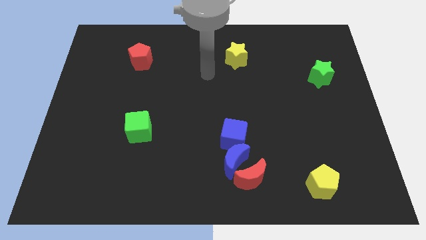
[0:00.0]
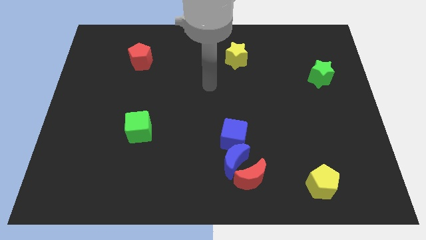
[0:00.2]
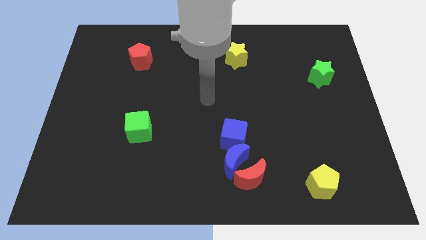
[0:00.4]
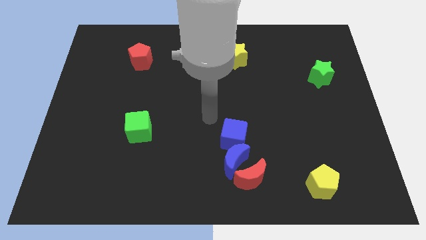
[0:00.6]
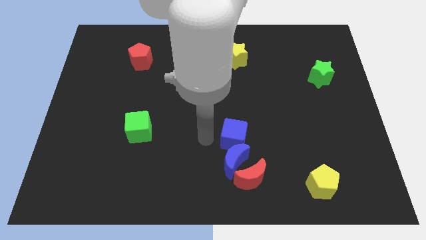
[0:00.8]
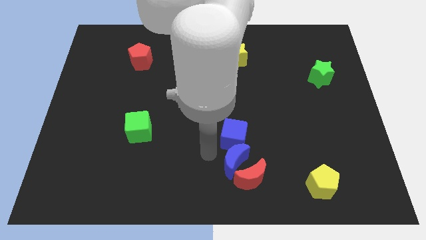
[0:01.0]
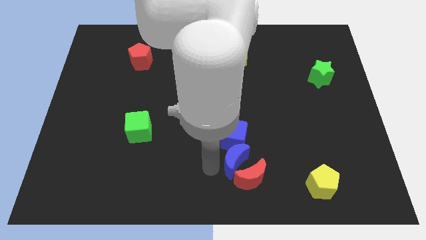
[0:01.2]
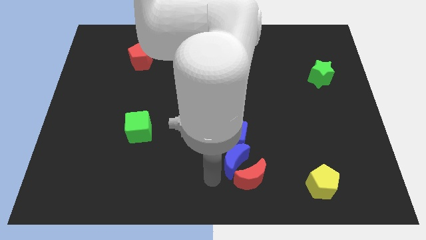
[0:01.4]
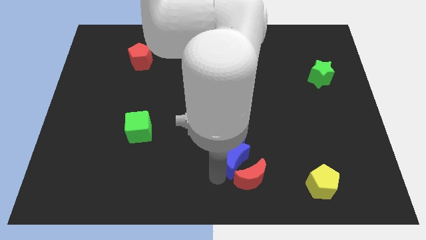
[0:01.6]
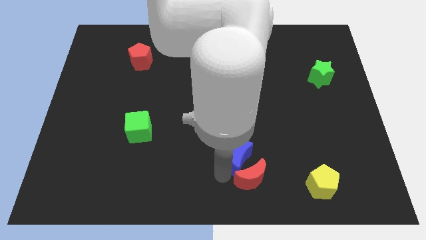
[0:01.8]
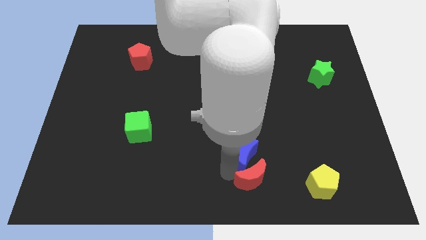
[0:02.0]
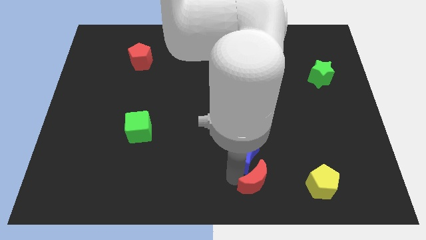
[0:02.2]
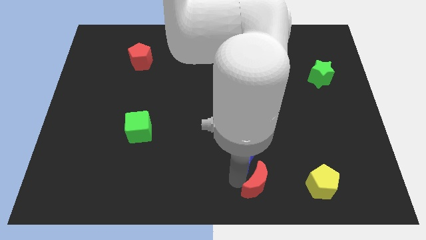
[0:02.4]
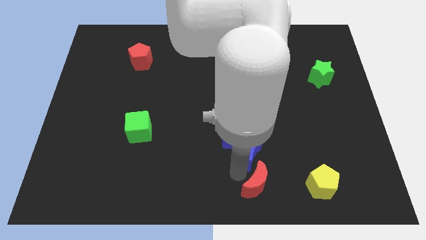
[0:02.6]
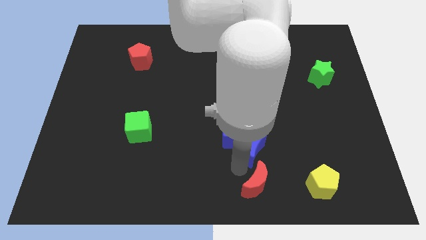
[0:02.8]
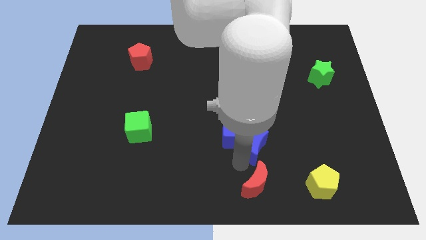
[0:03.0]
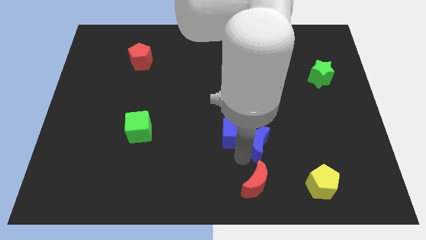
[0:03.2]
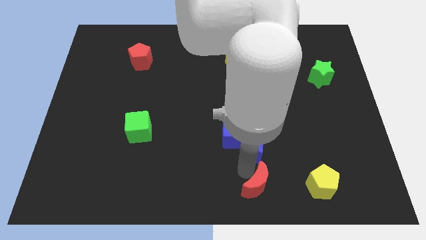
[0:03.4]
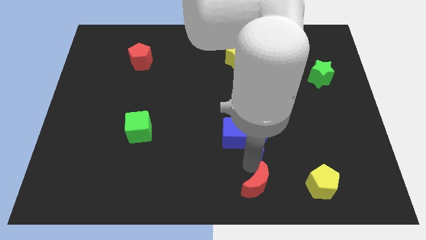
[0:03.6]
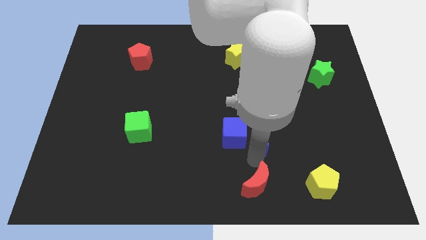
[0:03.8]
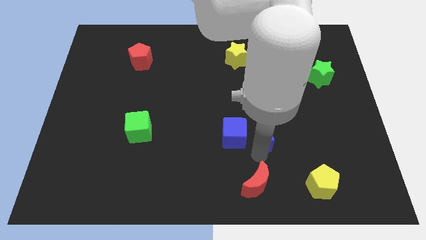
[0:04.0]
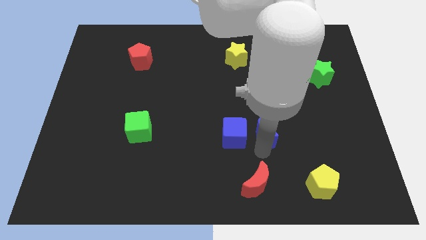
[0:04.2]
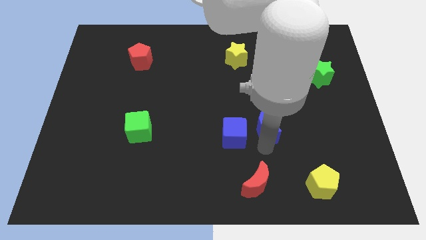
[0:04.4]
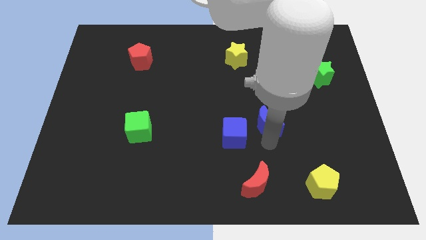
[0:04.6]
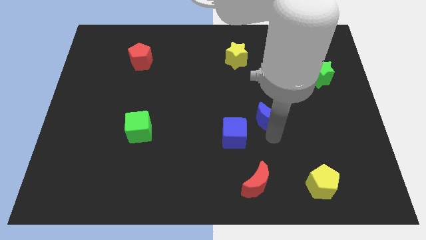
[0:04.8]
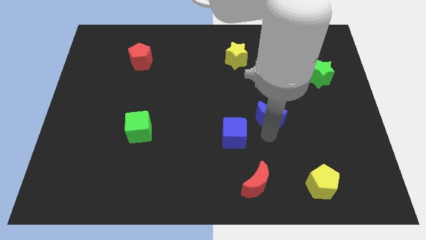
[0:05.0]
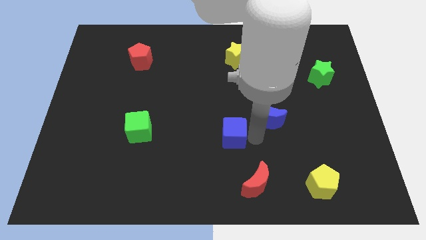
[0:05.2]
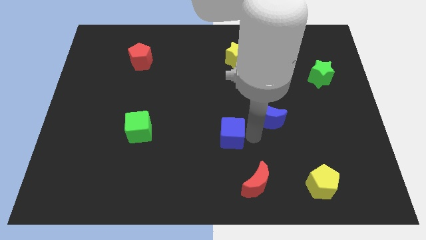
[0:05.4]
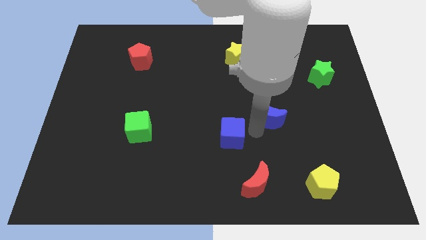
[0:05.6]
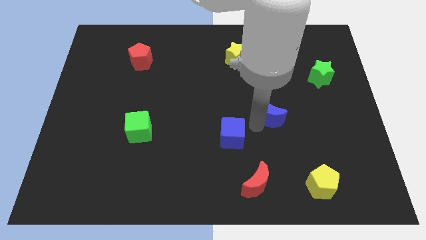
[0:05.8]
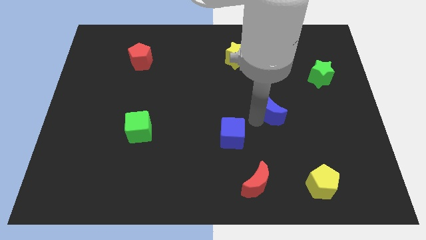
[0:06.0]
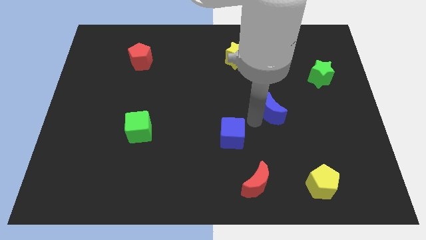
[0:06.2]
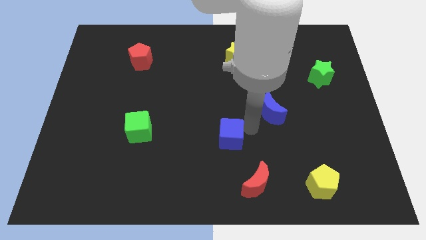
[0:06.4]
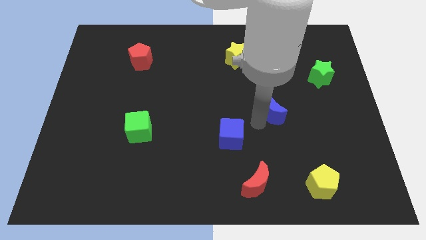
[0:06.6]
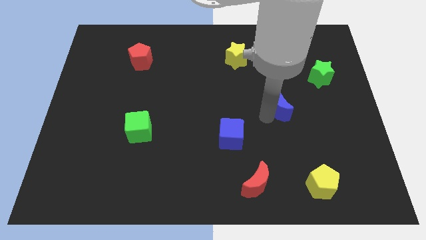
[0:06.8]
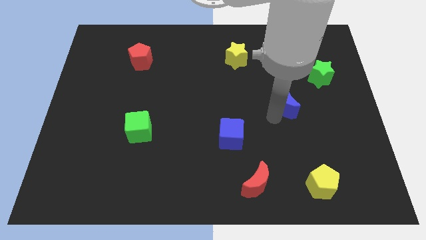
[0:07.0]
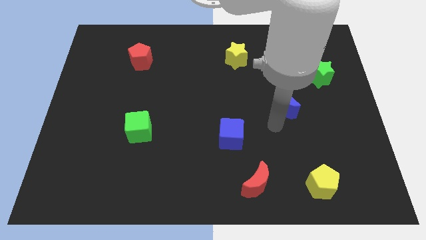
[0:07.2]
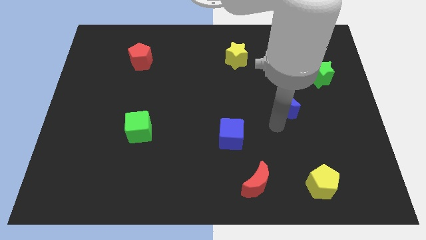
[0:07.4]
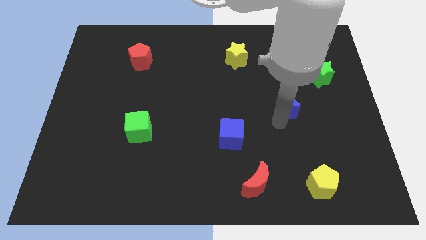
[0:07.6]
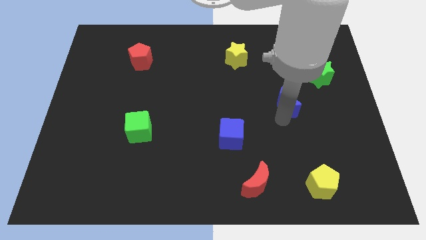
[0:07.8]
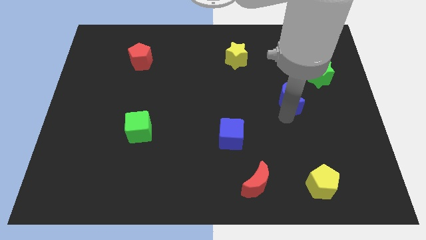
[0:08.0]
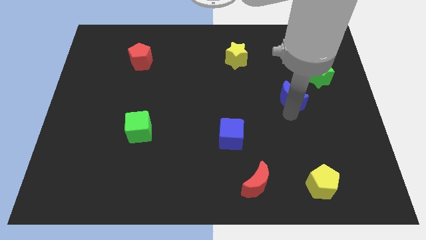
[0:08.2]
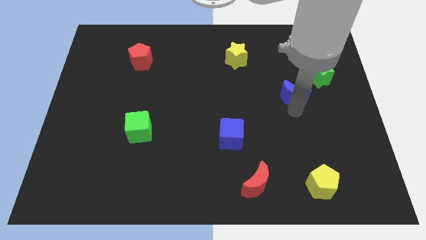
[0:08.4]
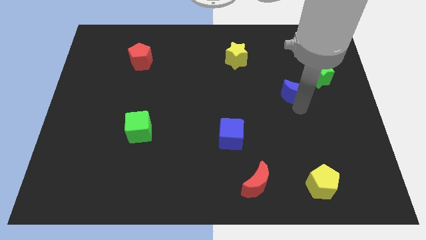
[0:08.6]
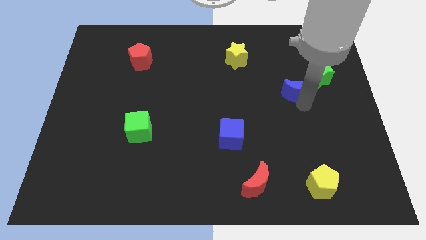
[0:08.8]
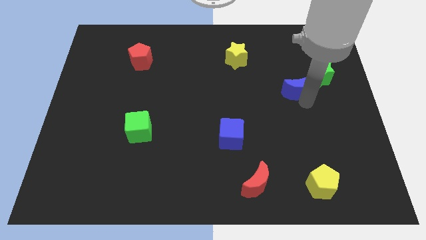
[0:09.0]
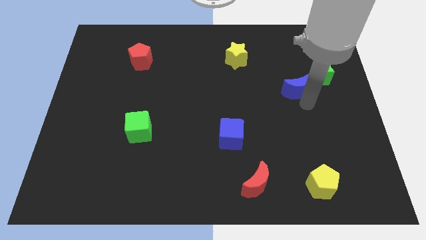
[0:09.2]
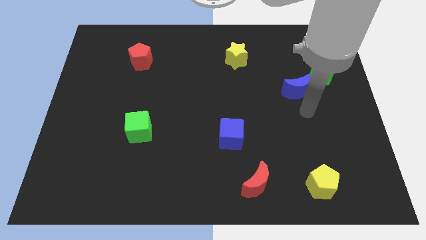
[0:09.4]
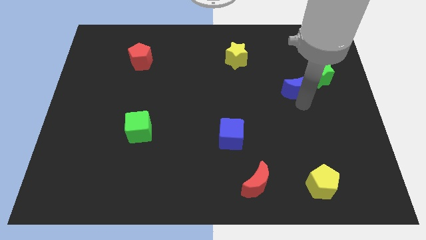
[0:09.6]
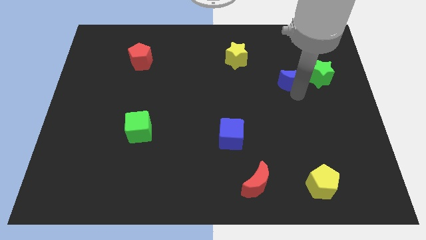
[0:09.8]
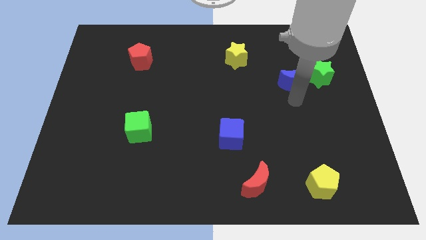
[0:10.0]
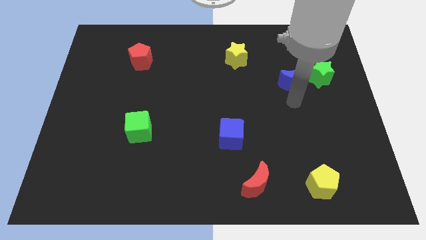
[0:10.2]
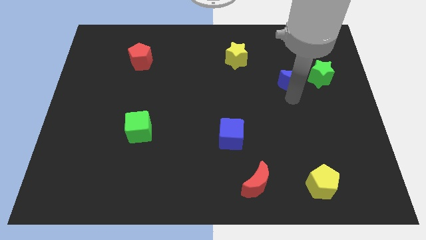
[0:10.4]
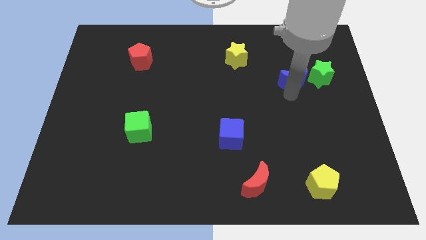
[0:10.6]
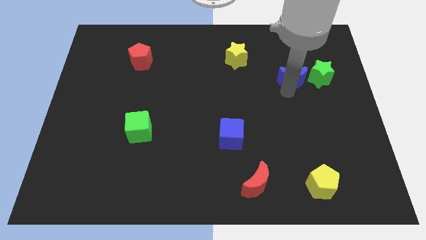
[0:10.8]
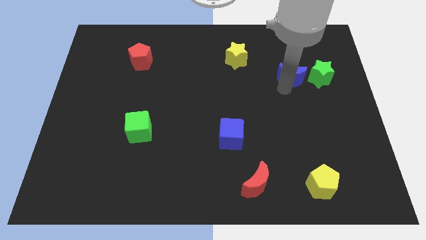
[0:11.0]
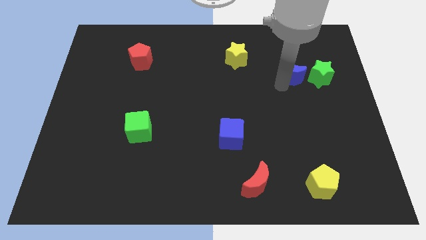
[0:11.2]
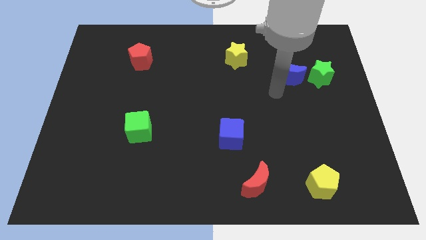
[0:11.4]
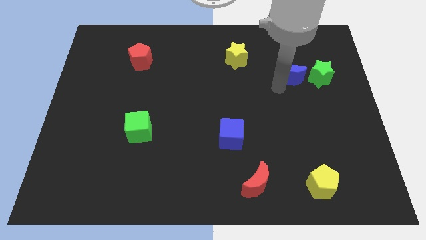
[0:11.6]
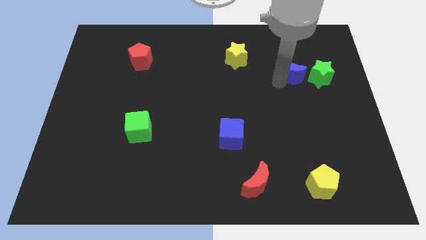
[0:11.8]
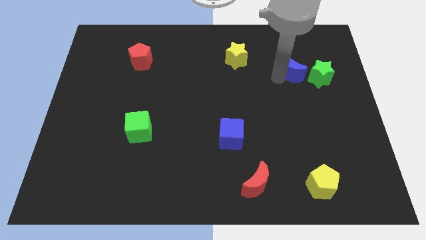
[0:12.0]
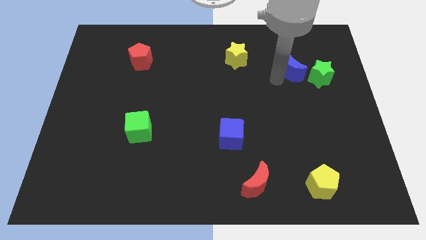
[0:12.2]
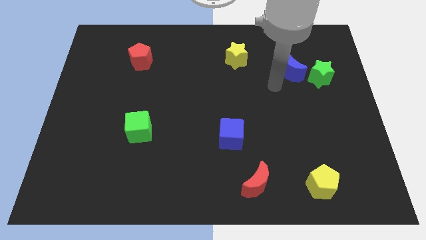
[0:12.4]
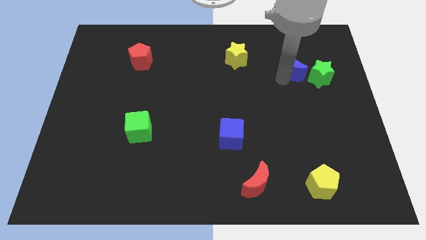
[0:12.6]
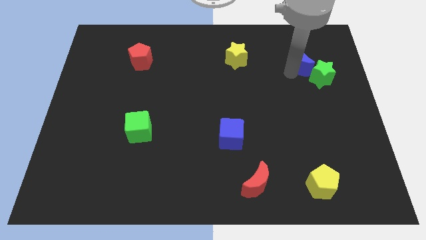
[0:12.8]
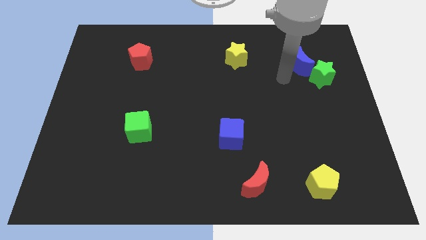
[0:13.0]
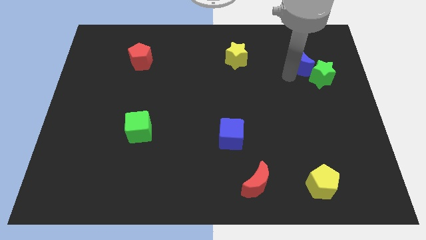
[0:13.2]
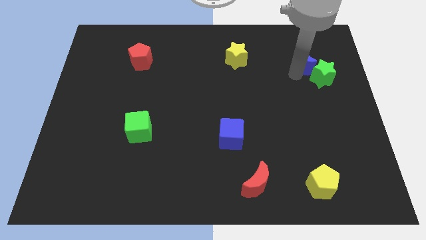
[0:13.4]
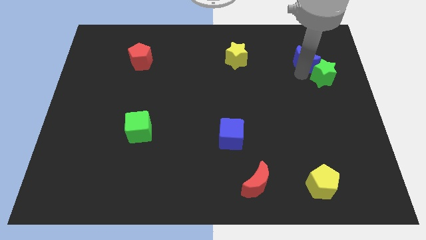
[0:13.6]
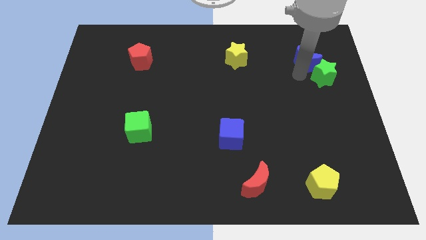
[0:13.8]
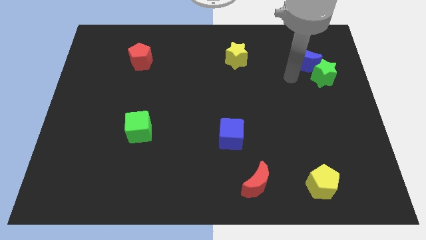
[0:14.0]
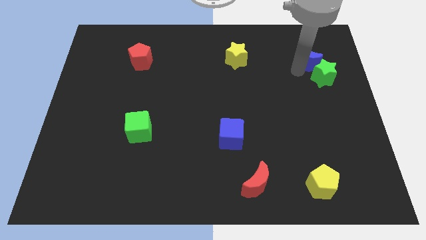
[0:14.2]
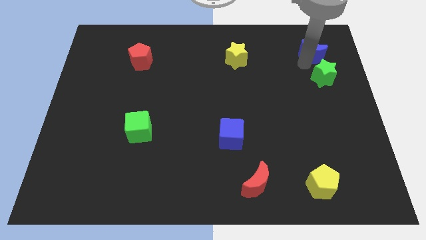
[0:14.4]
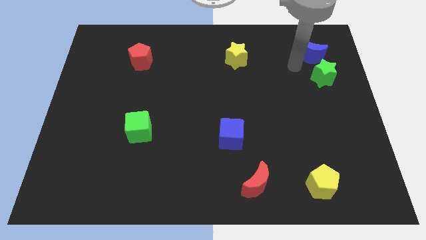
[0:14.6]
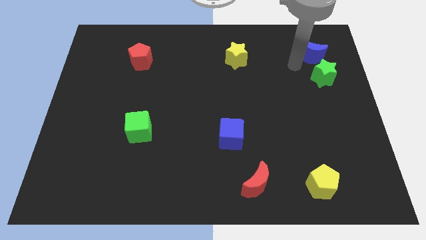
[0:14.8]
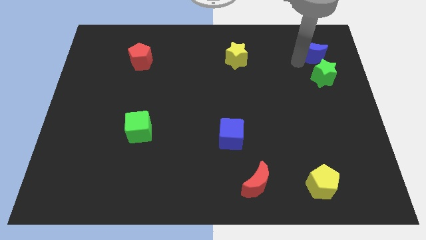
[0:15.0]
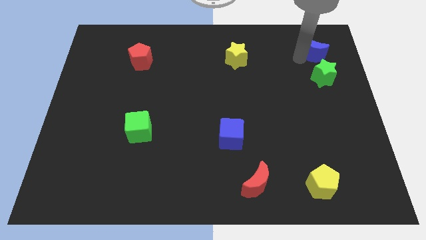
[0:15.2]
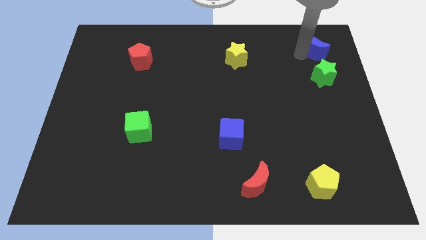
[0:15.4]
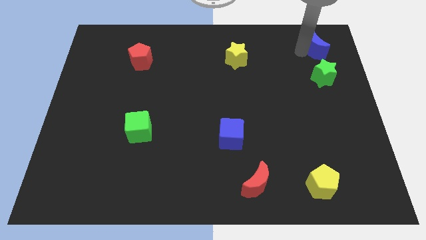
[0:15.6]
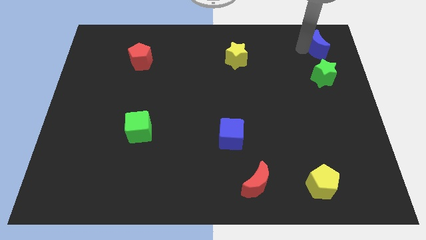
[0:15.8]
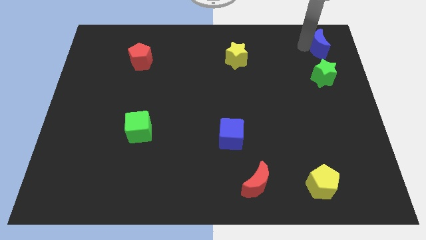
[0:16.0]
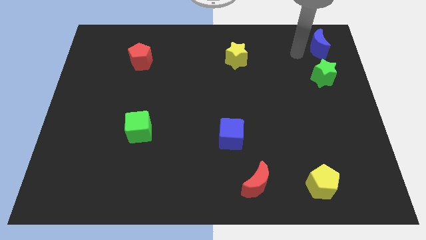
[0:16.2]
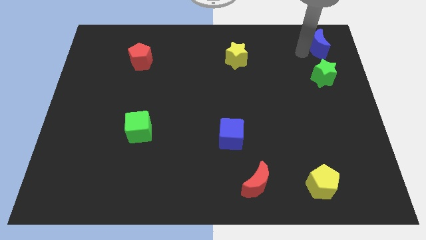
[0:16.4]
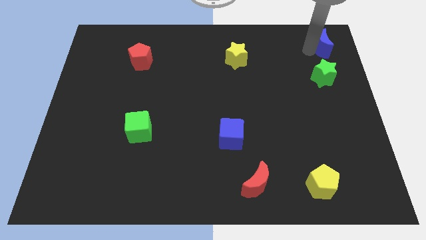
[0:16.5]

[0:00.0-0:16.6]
move the blue moon to the upper right corner
